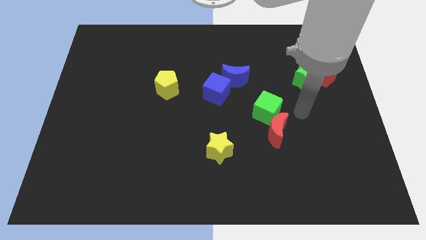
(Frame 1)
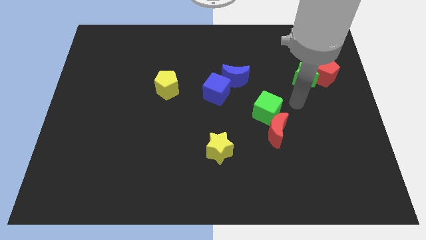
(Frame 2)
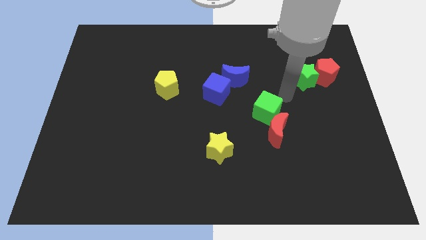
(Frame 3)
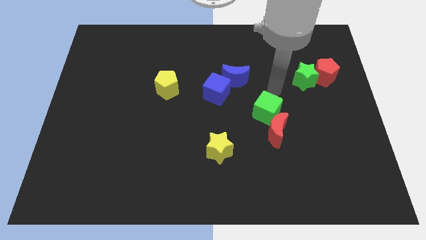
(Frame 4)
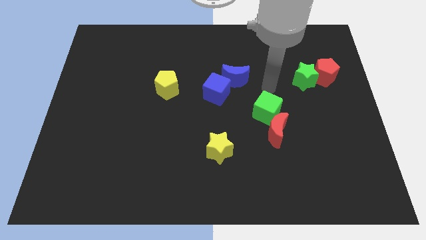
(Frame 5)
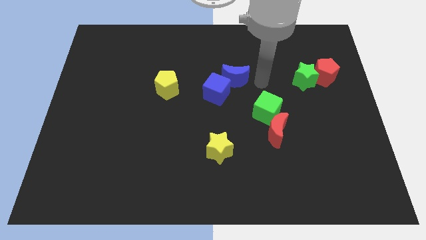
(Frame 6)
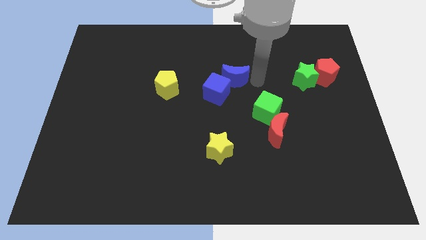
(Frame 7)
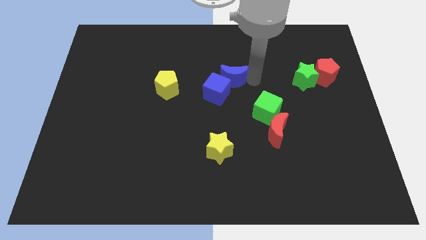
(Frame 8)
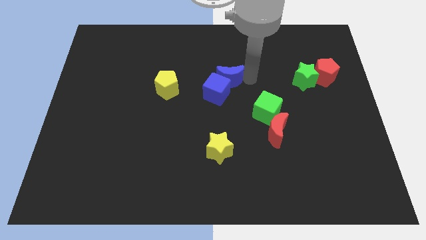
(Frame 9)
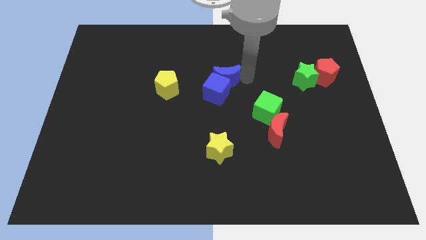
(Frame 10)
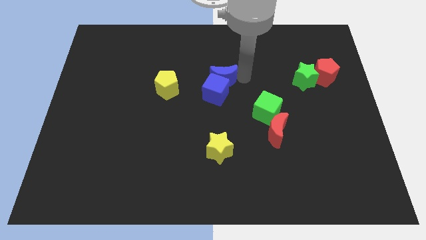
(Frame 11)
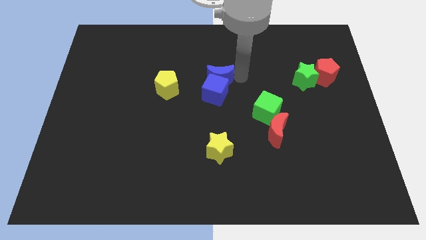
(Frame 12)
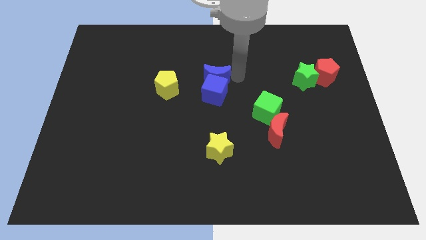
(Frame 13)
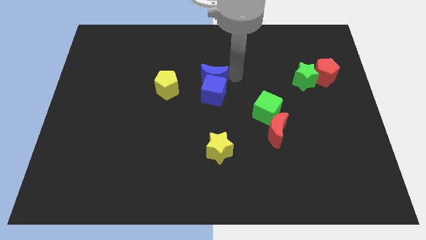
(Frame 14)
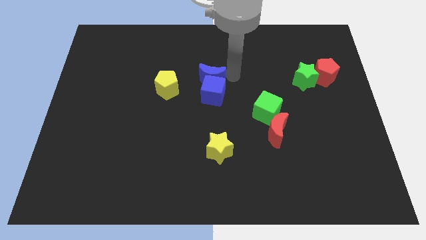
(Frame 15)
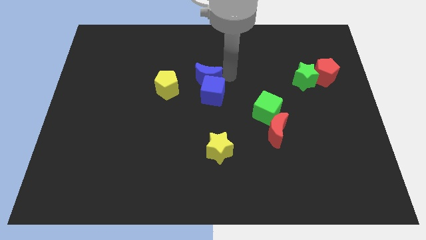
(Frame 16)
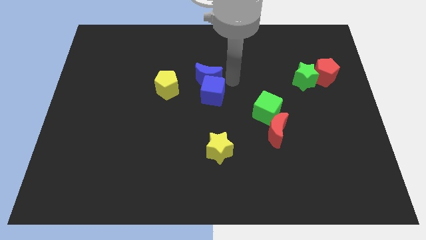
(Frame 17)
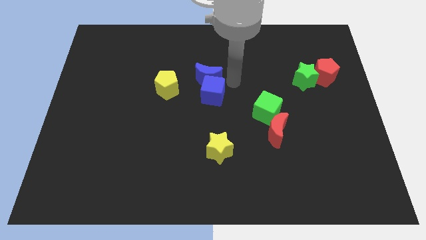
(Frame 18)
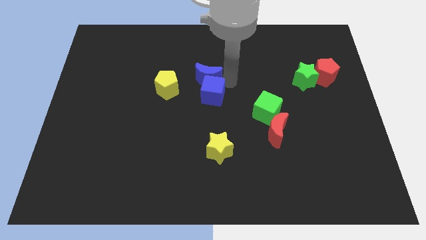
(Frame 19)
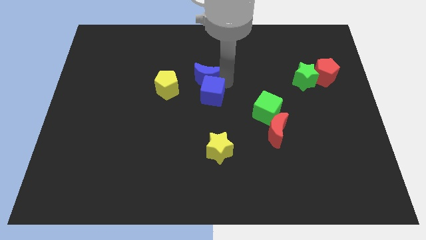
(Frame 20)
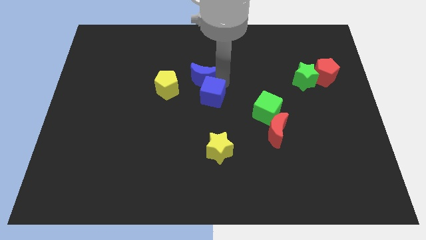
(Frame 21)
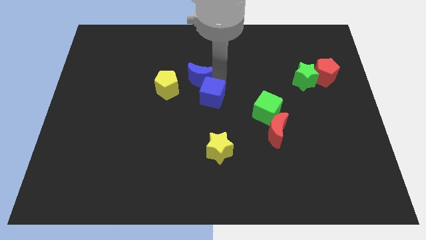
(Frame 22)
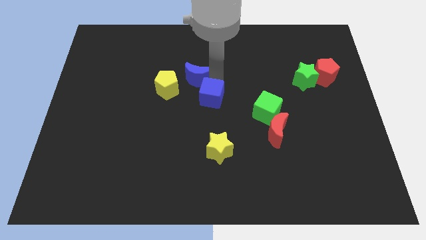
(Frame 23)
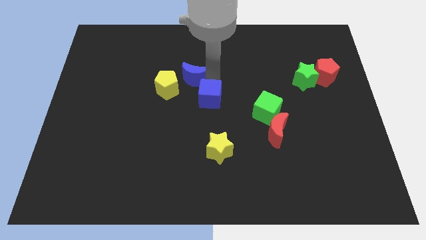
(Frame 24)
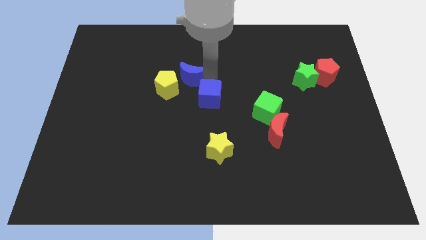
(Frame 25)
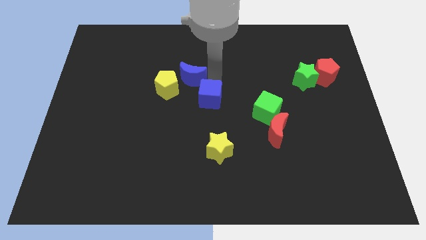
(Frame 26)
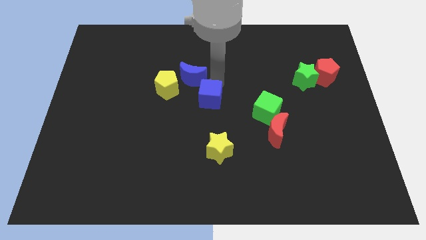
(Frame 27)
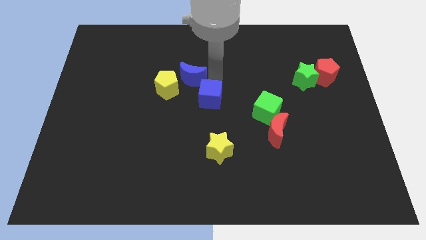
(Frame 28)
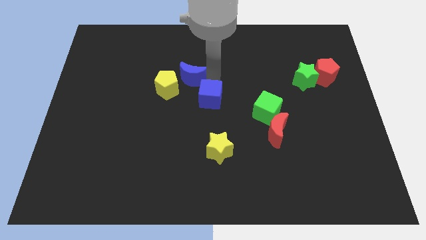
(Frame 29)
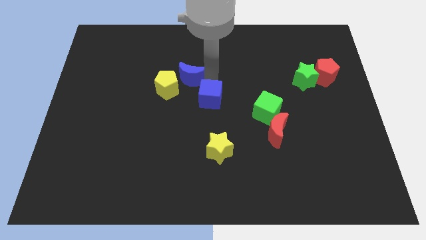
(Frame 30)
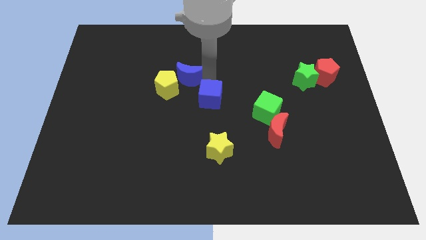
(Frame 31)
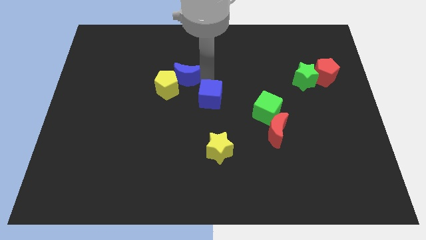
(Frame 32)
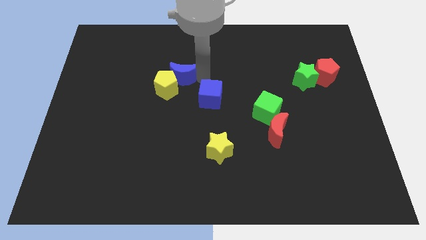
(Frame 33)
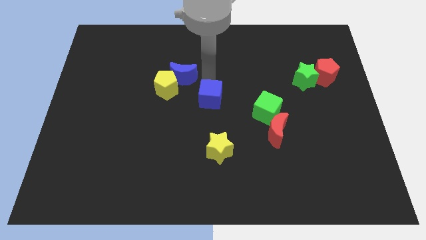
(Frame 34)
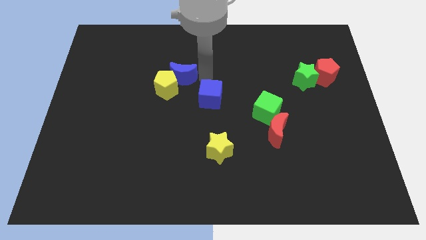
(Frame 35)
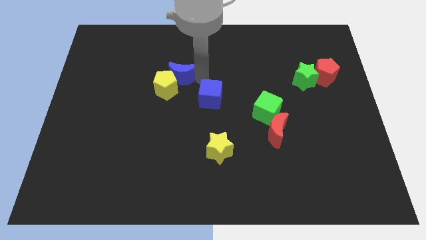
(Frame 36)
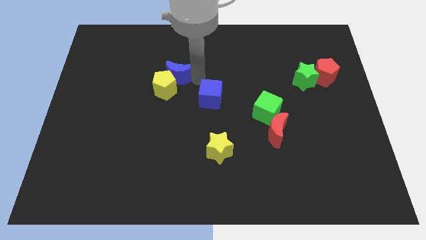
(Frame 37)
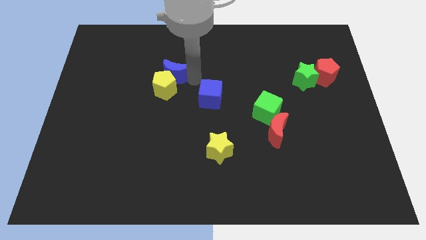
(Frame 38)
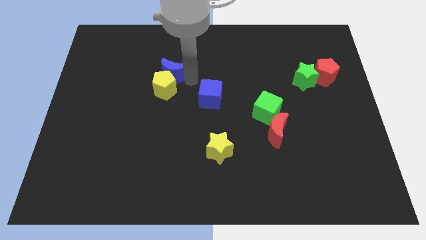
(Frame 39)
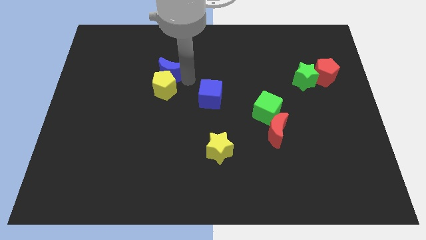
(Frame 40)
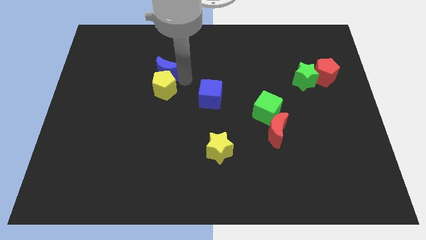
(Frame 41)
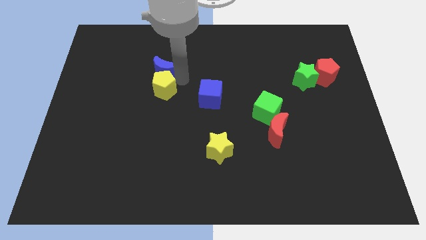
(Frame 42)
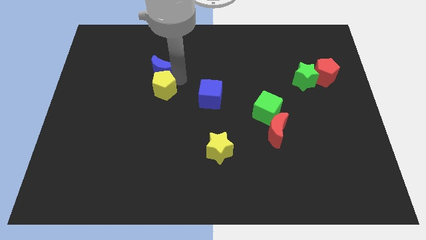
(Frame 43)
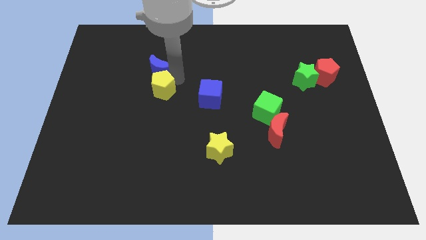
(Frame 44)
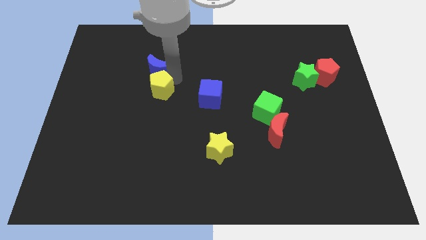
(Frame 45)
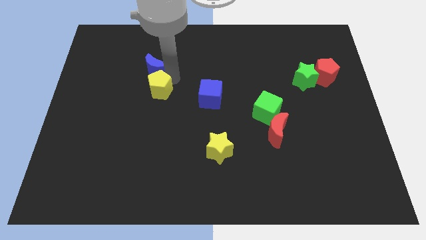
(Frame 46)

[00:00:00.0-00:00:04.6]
move the blue moon left

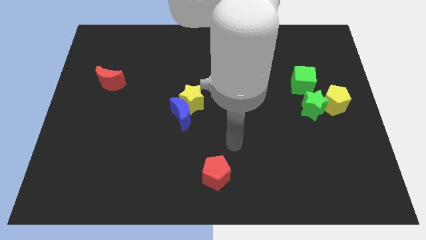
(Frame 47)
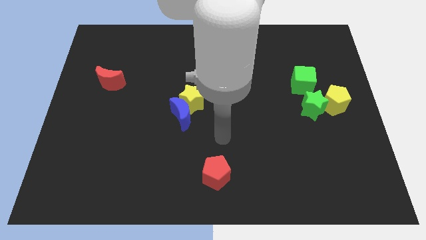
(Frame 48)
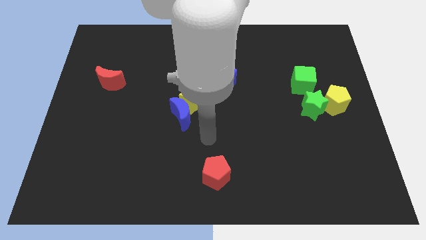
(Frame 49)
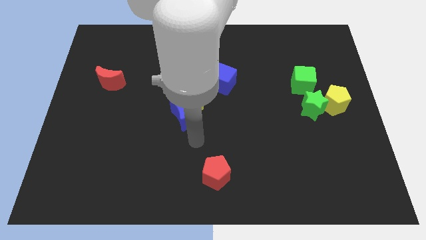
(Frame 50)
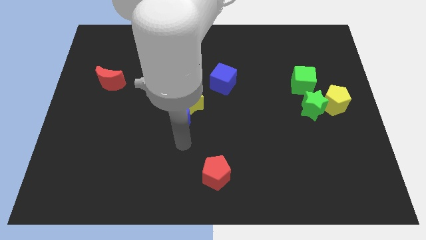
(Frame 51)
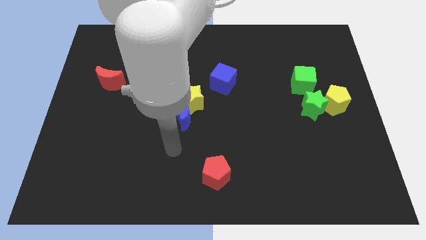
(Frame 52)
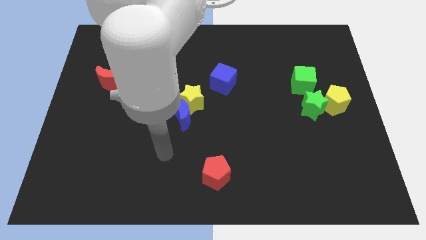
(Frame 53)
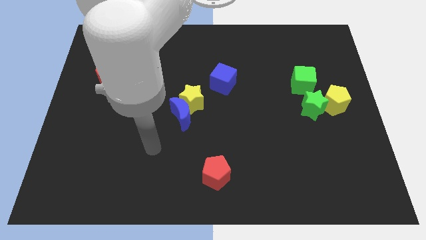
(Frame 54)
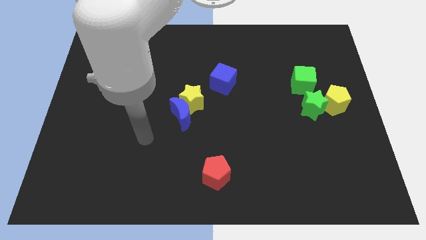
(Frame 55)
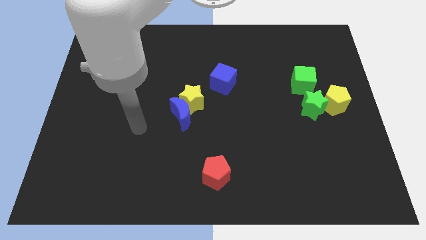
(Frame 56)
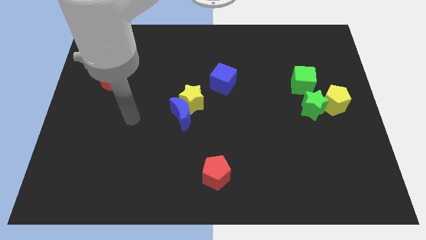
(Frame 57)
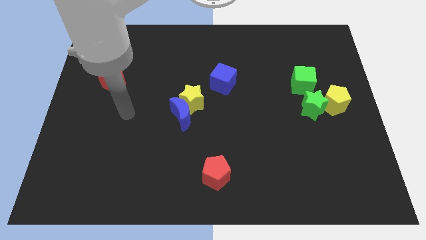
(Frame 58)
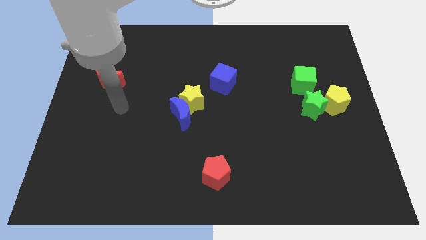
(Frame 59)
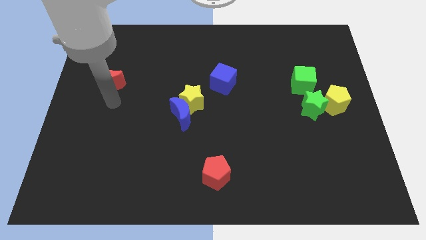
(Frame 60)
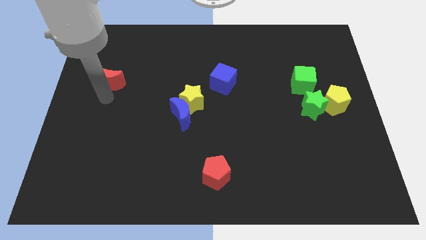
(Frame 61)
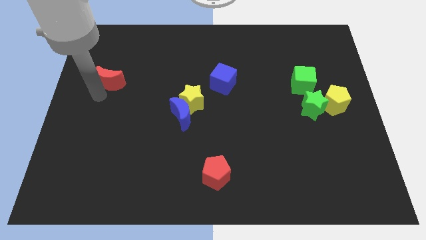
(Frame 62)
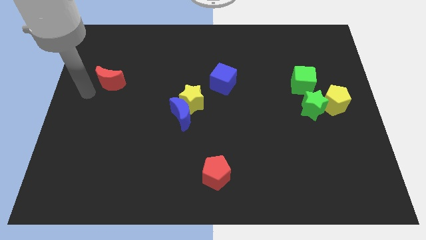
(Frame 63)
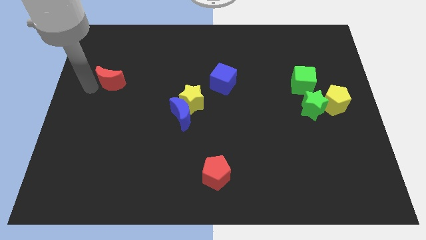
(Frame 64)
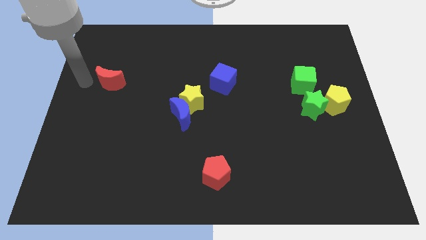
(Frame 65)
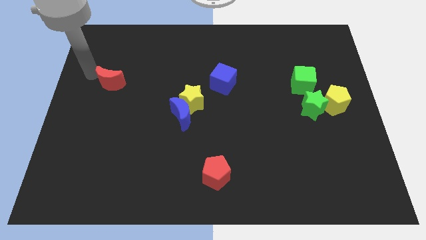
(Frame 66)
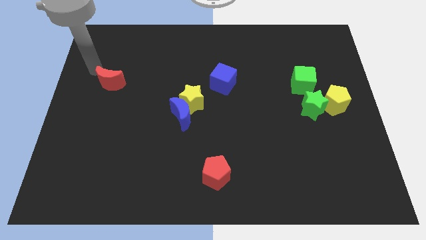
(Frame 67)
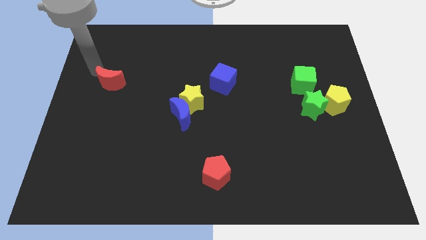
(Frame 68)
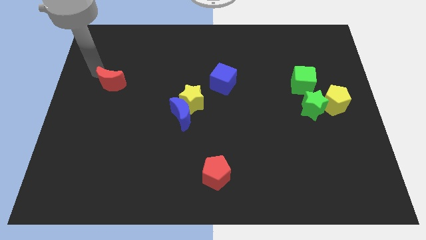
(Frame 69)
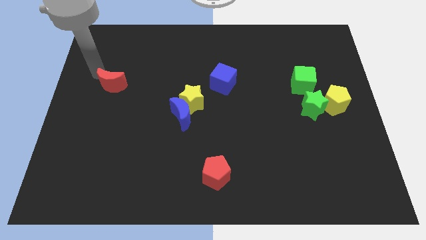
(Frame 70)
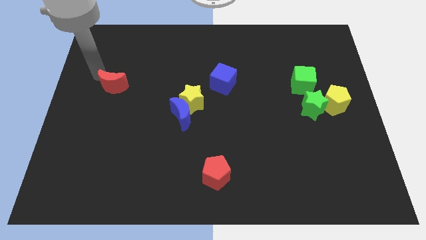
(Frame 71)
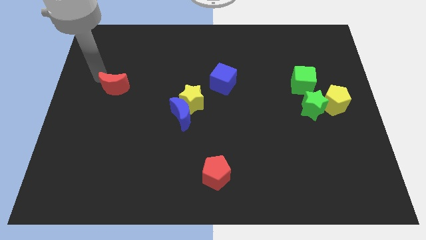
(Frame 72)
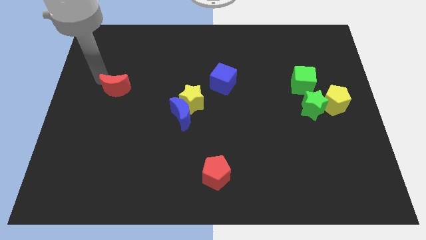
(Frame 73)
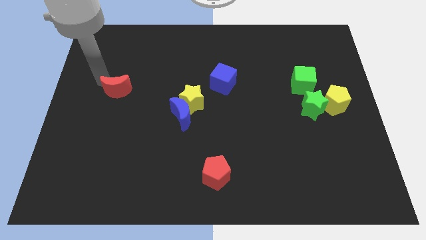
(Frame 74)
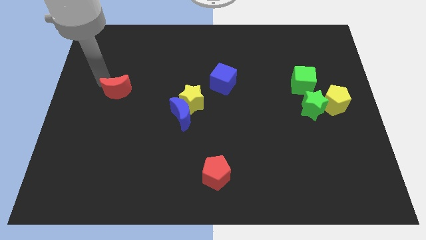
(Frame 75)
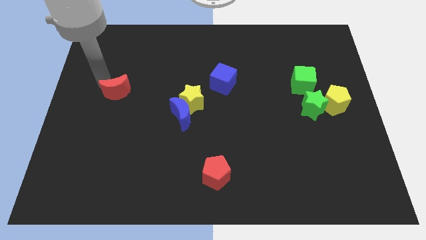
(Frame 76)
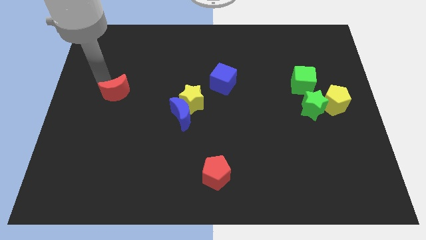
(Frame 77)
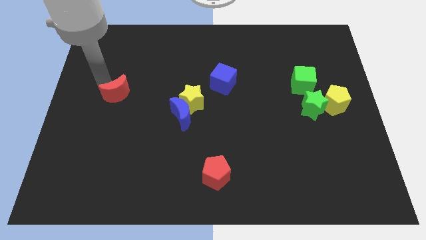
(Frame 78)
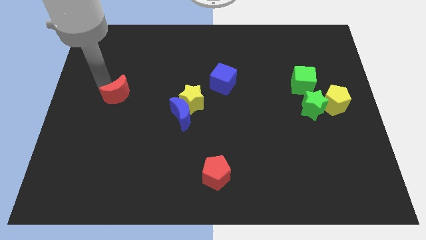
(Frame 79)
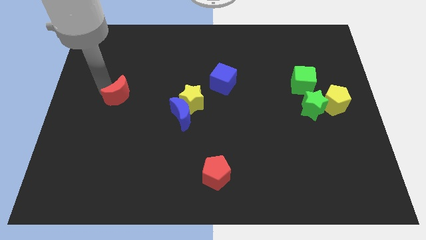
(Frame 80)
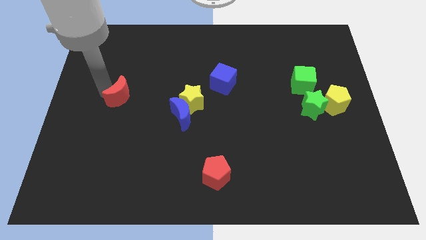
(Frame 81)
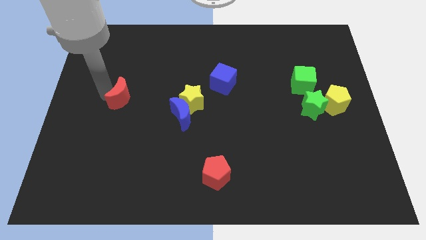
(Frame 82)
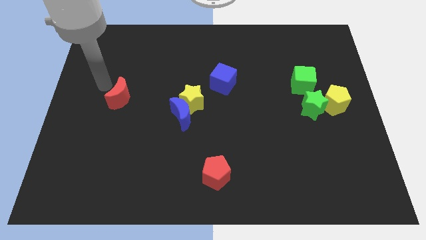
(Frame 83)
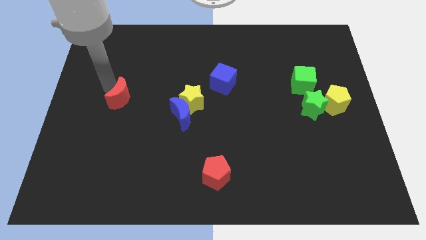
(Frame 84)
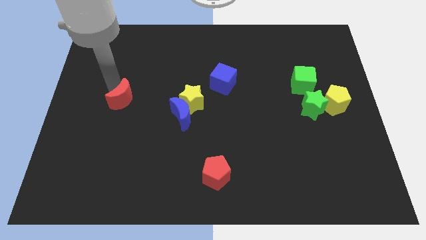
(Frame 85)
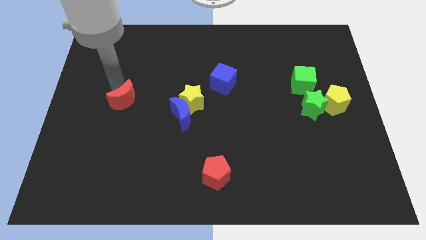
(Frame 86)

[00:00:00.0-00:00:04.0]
slide the red moon a bit downwards and then to the right

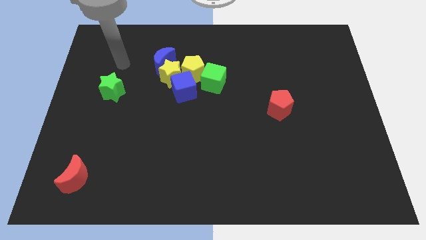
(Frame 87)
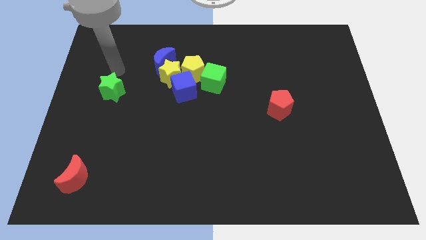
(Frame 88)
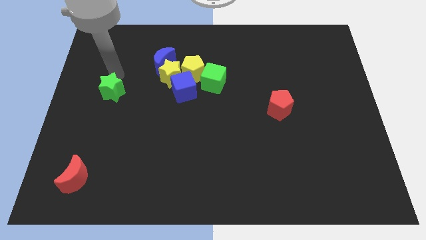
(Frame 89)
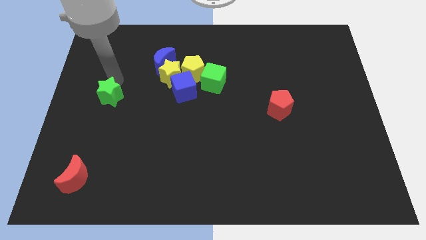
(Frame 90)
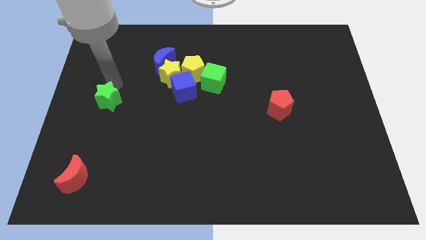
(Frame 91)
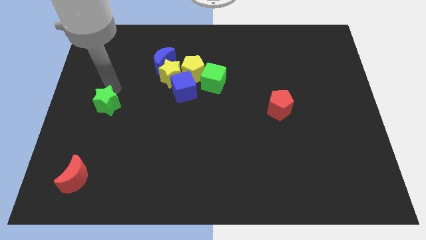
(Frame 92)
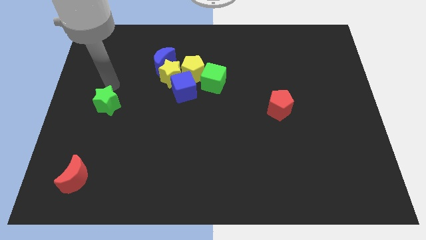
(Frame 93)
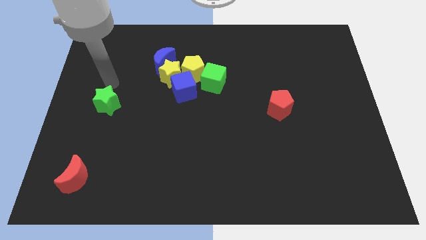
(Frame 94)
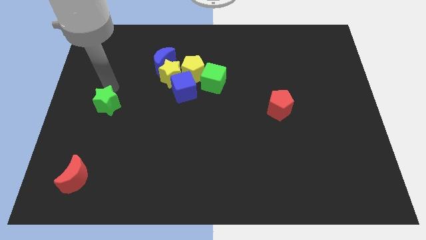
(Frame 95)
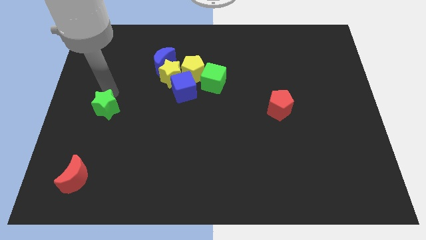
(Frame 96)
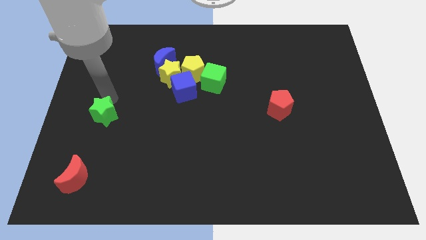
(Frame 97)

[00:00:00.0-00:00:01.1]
push the green star somewhat down
